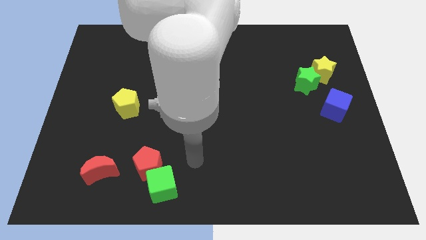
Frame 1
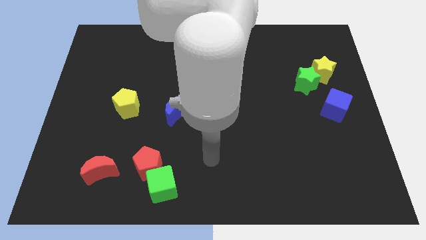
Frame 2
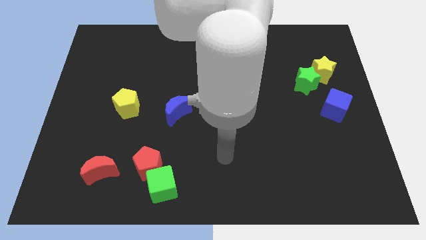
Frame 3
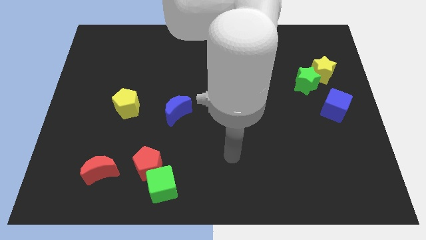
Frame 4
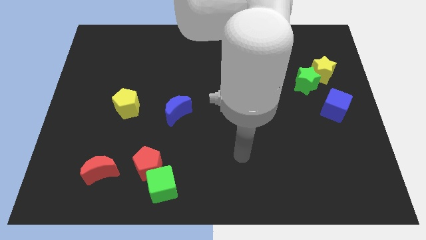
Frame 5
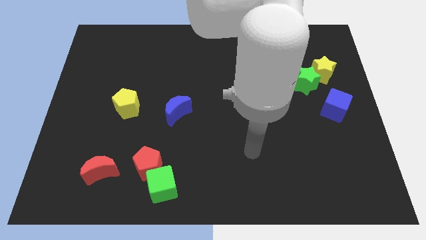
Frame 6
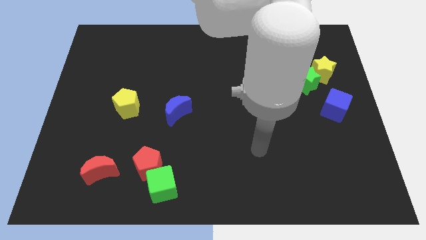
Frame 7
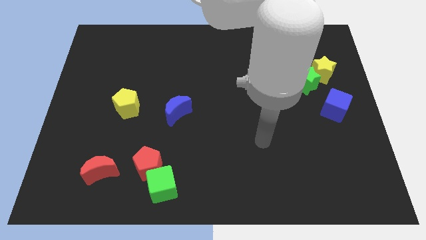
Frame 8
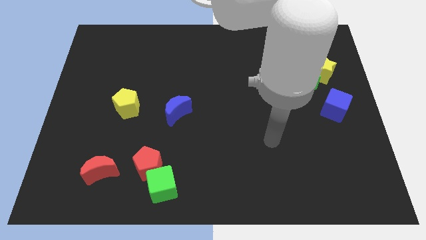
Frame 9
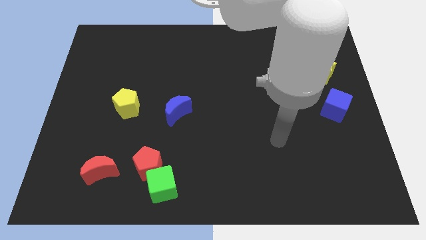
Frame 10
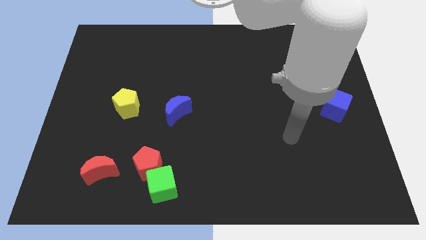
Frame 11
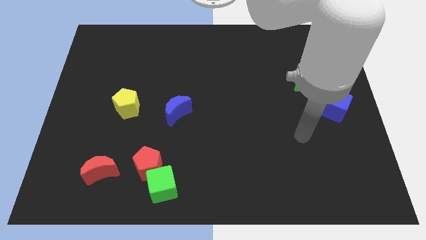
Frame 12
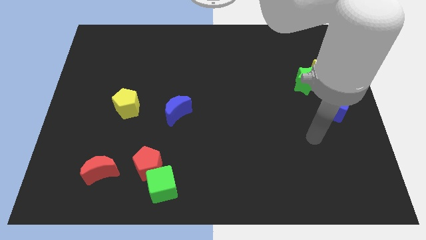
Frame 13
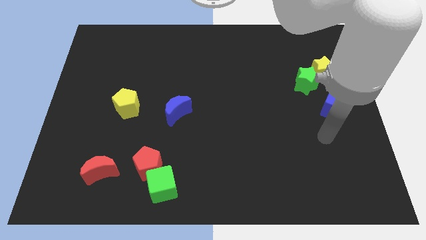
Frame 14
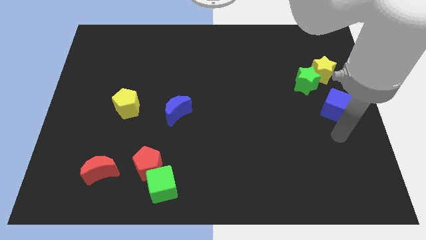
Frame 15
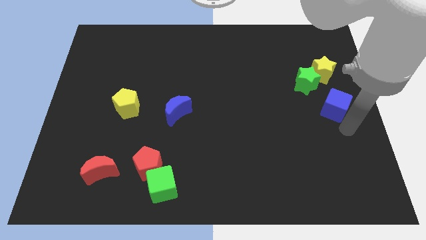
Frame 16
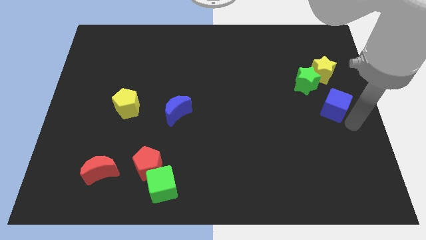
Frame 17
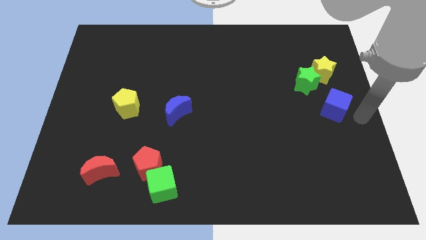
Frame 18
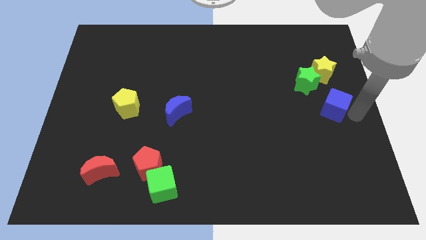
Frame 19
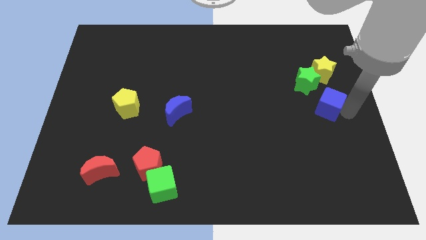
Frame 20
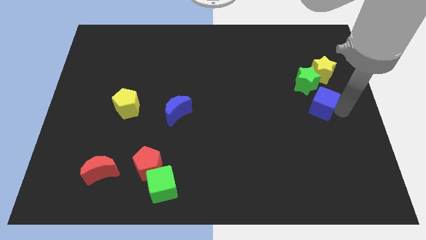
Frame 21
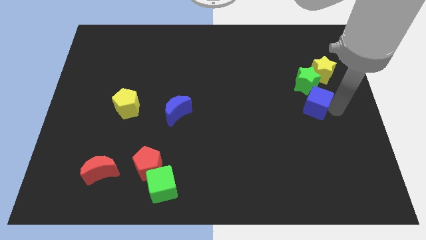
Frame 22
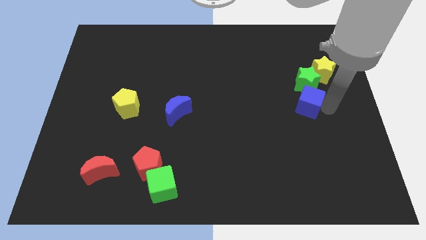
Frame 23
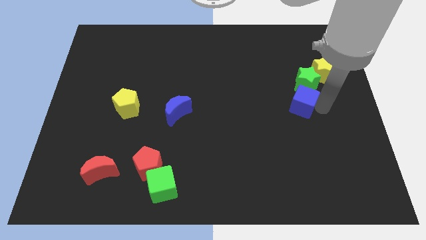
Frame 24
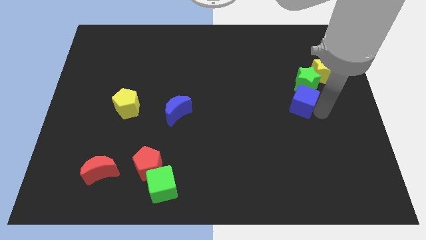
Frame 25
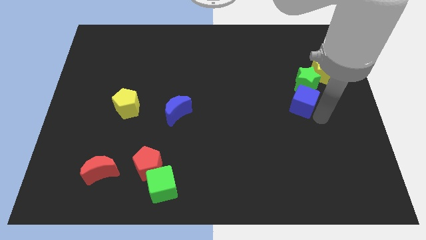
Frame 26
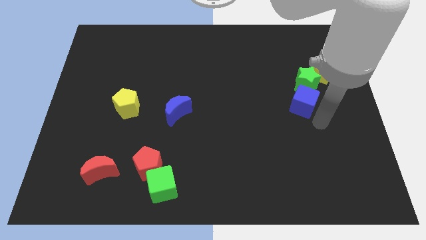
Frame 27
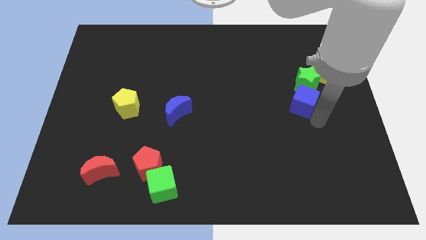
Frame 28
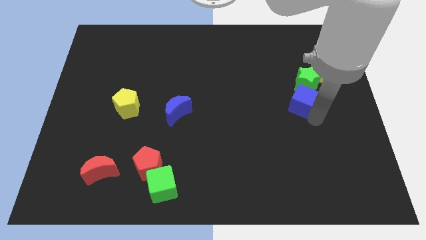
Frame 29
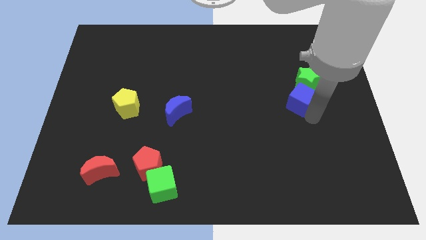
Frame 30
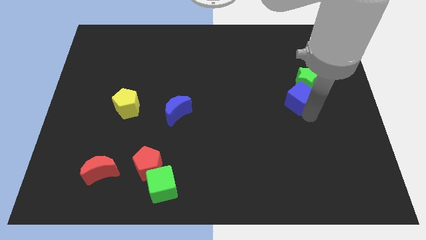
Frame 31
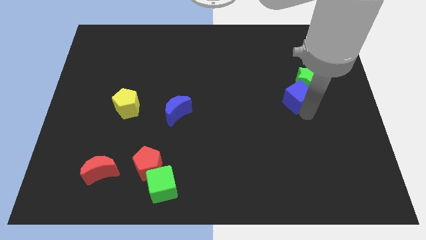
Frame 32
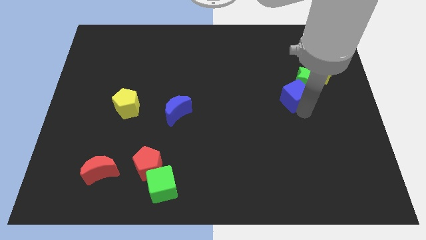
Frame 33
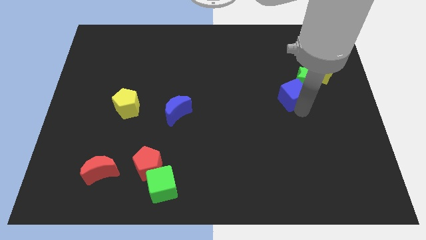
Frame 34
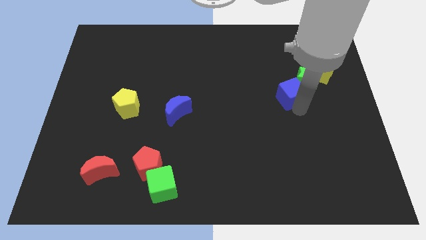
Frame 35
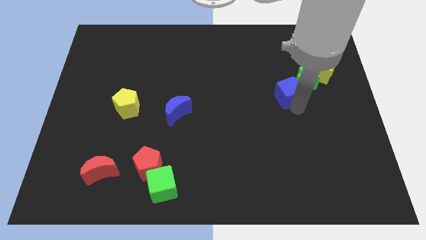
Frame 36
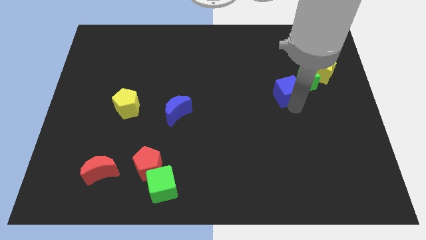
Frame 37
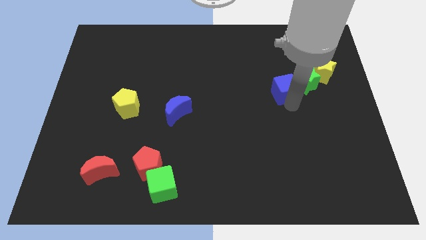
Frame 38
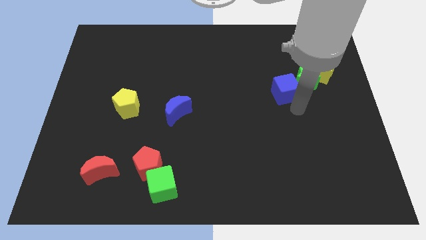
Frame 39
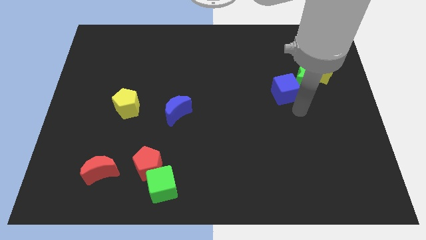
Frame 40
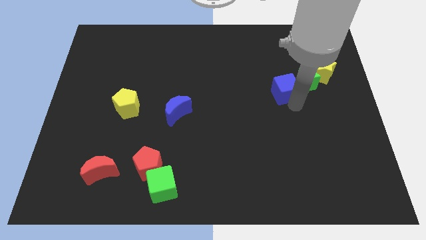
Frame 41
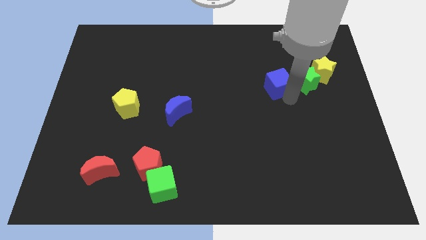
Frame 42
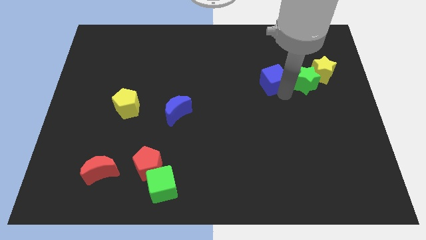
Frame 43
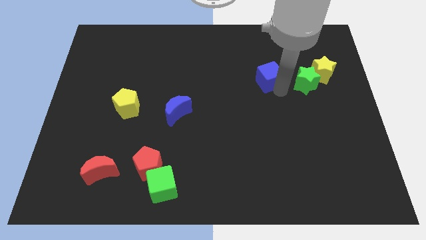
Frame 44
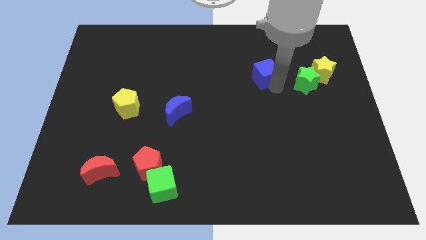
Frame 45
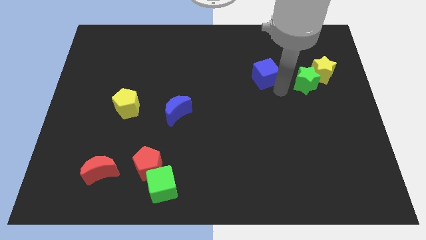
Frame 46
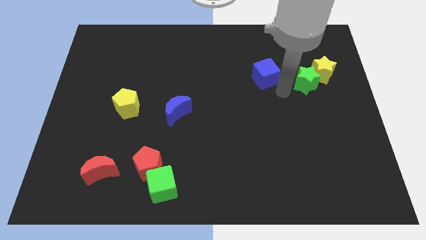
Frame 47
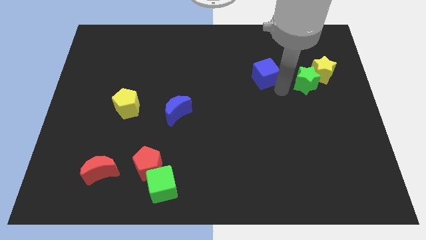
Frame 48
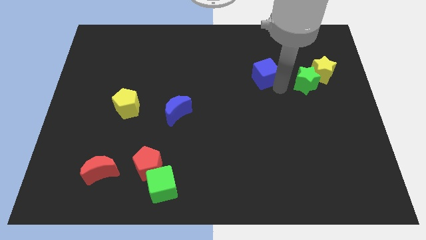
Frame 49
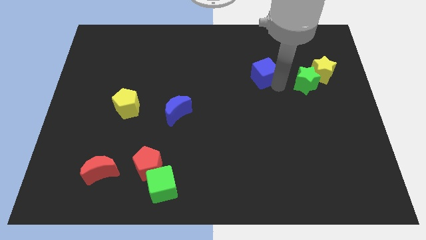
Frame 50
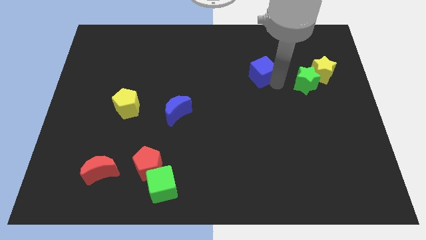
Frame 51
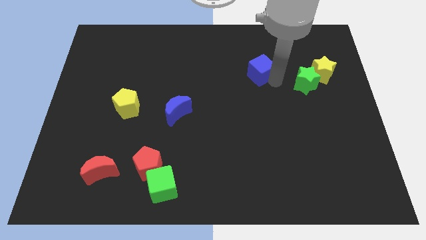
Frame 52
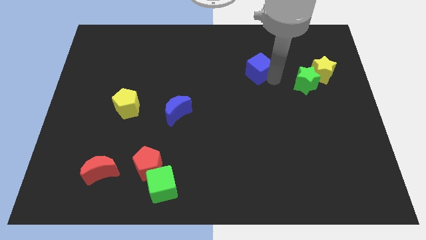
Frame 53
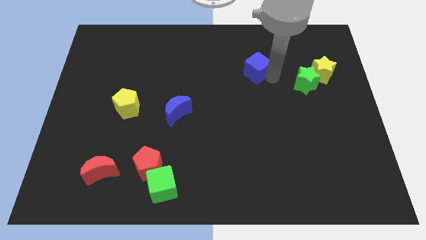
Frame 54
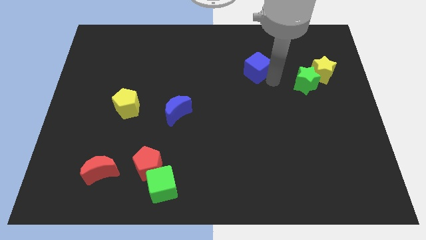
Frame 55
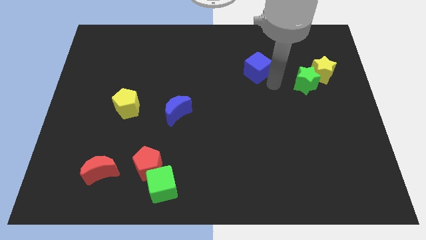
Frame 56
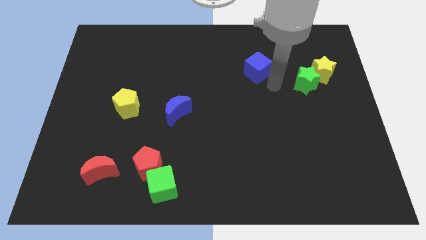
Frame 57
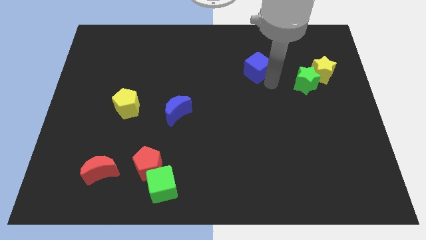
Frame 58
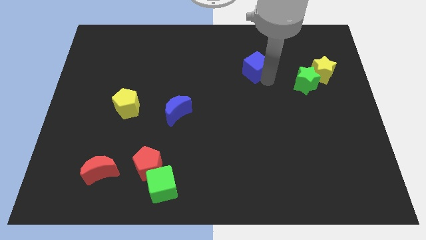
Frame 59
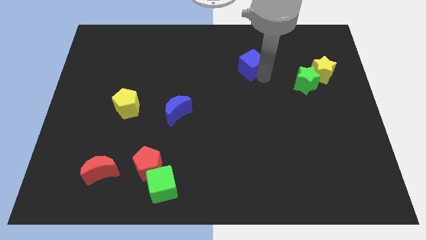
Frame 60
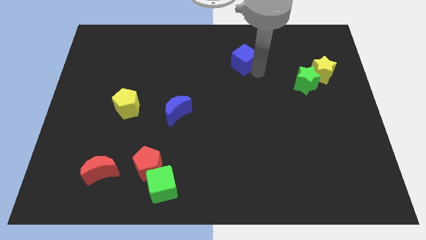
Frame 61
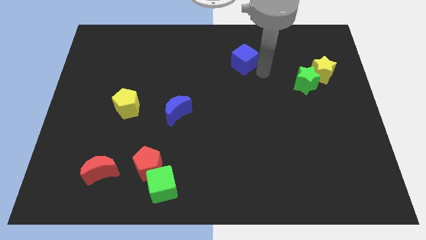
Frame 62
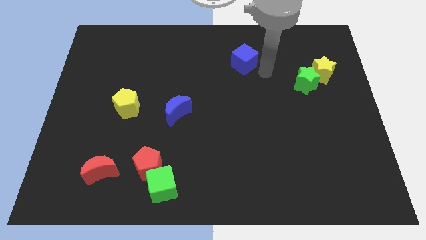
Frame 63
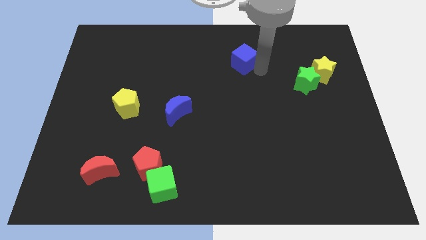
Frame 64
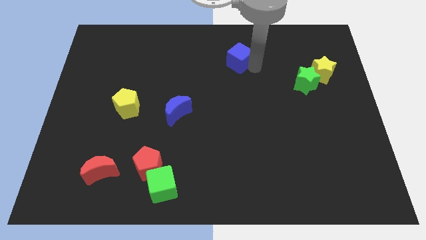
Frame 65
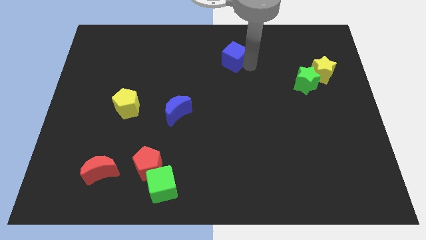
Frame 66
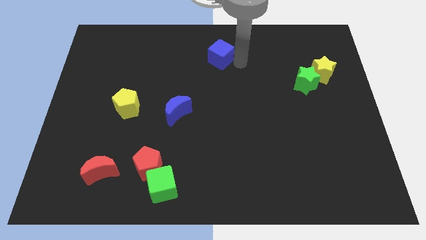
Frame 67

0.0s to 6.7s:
slide the blue cube to the top side

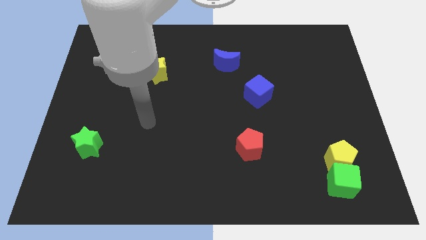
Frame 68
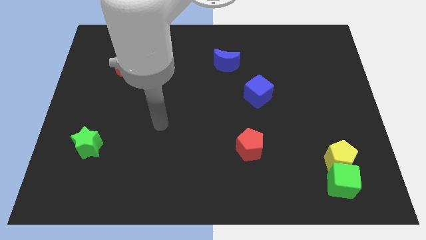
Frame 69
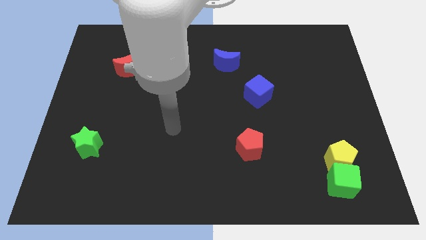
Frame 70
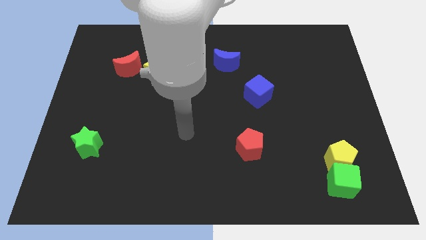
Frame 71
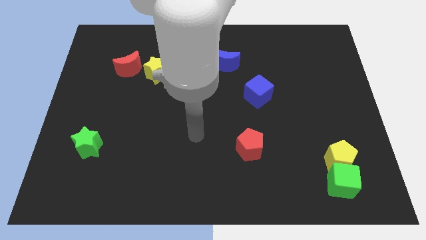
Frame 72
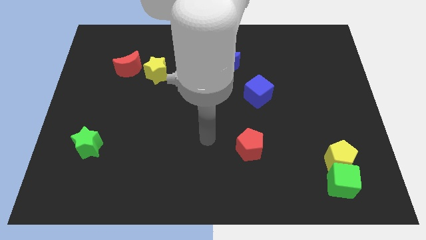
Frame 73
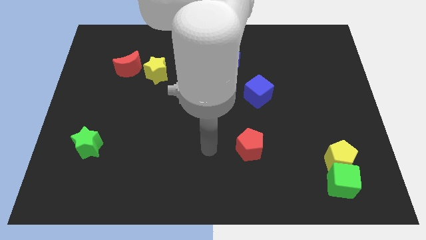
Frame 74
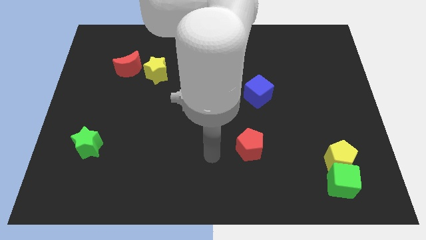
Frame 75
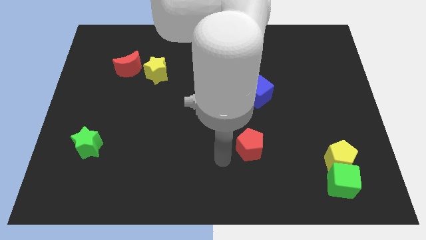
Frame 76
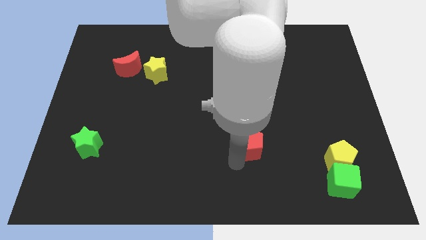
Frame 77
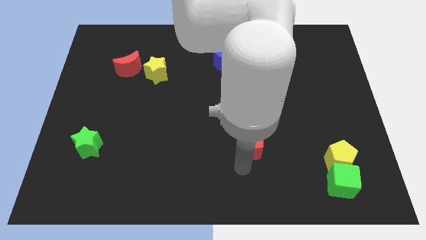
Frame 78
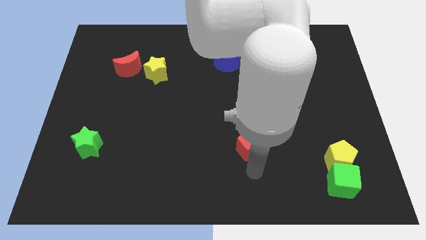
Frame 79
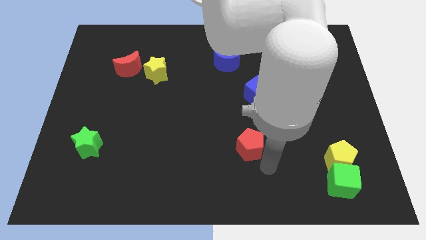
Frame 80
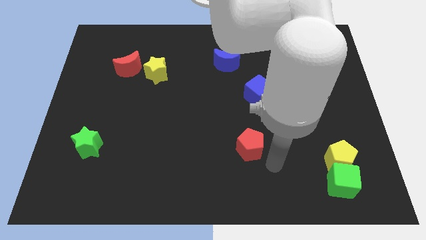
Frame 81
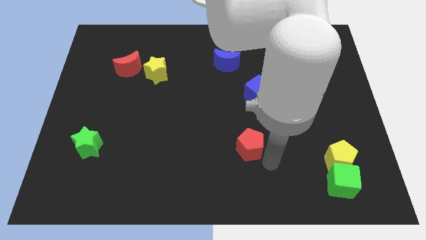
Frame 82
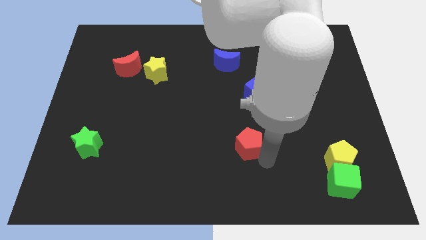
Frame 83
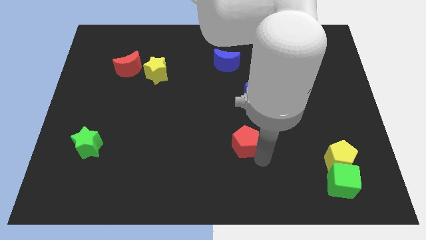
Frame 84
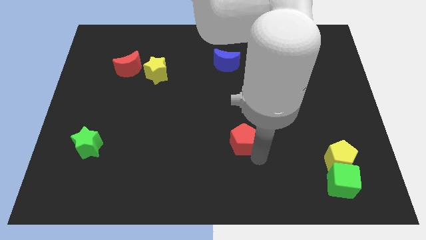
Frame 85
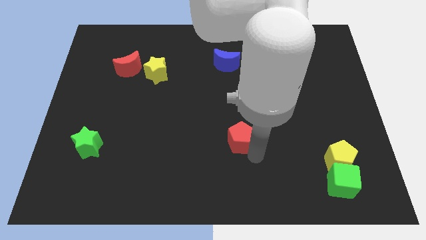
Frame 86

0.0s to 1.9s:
slide the red pentagon to the center
